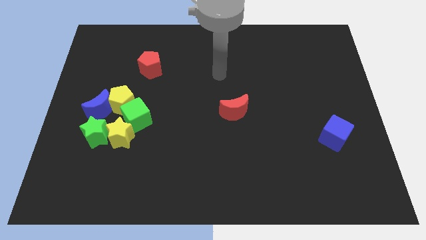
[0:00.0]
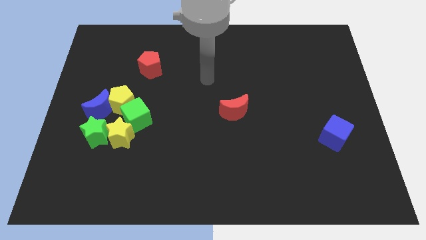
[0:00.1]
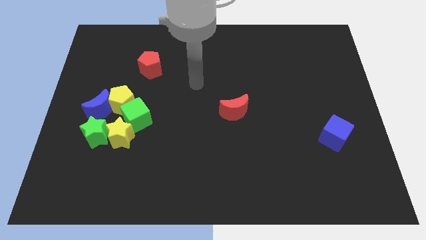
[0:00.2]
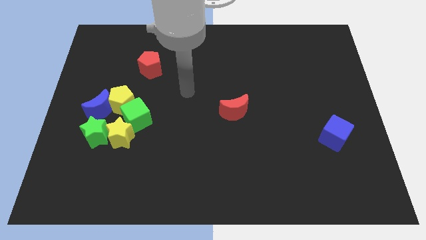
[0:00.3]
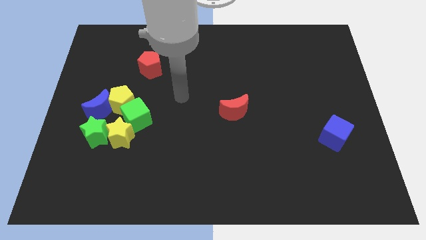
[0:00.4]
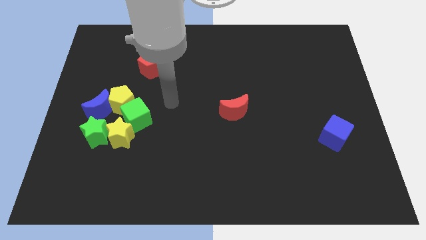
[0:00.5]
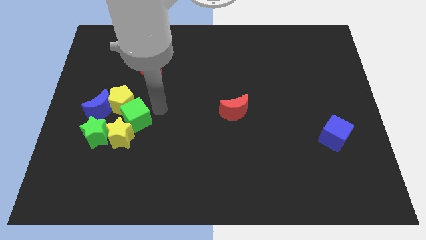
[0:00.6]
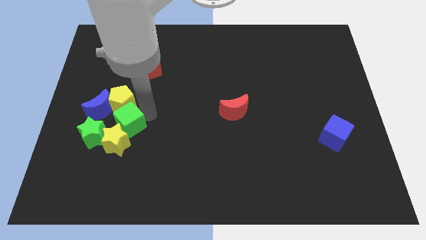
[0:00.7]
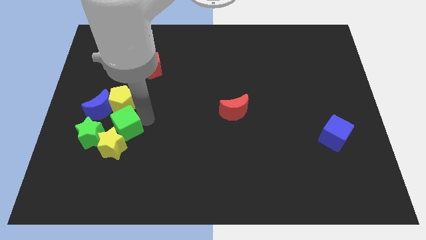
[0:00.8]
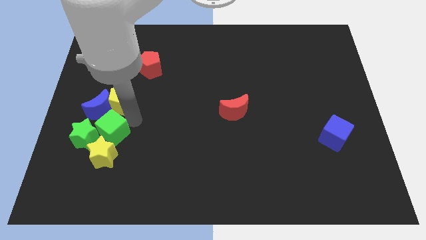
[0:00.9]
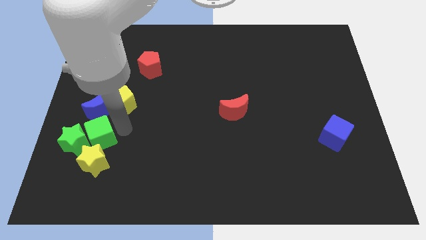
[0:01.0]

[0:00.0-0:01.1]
separate the yellow pentagon from the group

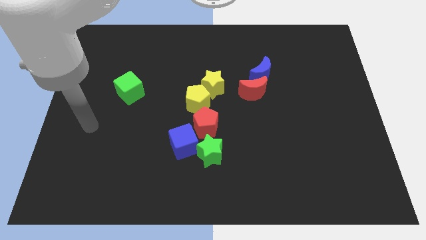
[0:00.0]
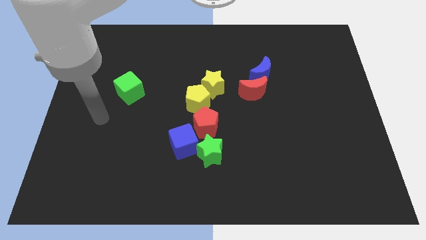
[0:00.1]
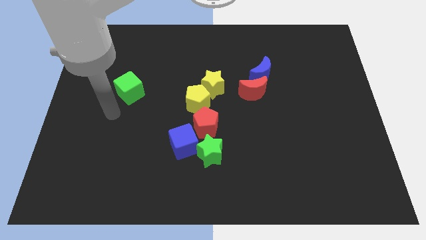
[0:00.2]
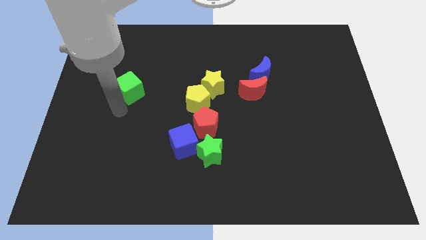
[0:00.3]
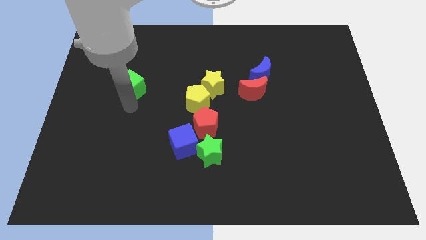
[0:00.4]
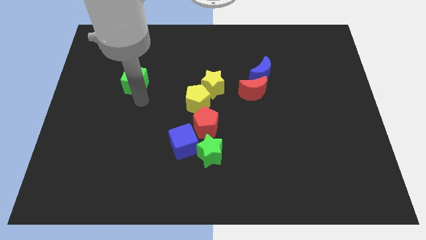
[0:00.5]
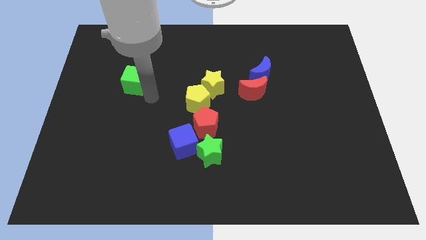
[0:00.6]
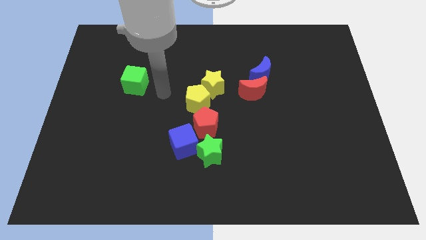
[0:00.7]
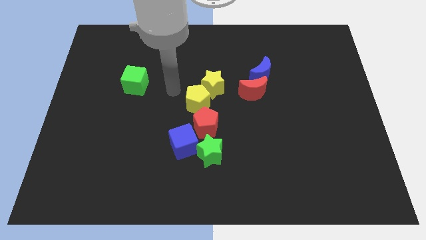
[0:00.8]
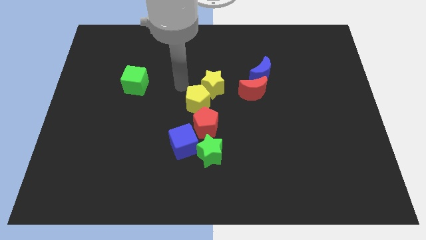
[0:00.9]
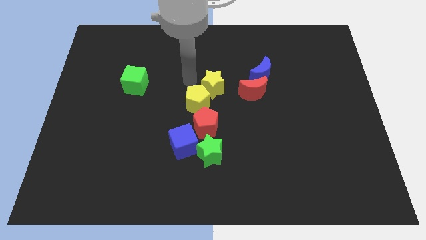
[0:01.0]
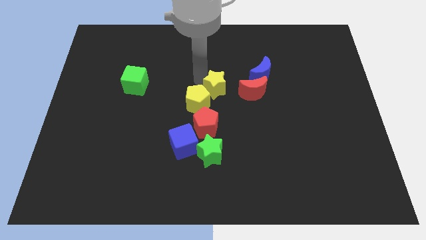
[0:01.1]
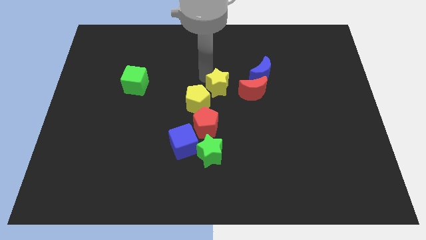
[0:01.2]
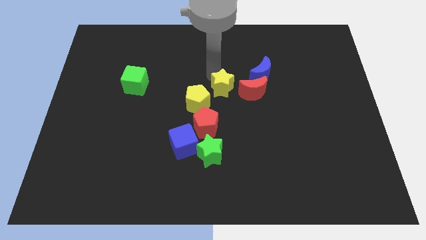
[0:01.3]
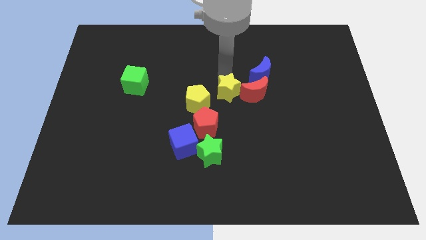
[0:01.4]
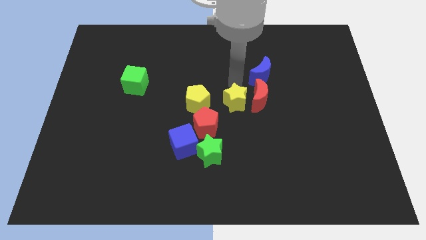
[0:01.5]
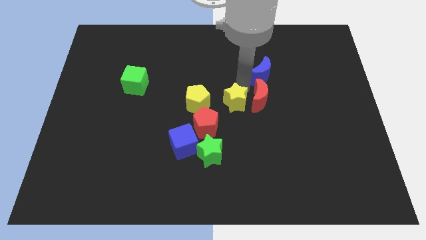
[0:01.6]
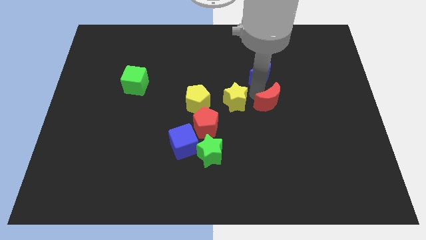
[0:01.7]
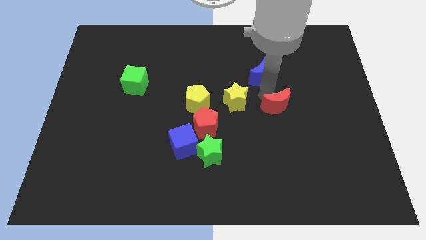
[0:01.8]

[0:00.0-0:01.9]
separate the blue moon from the red moon

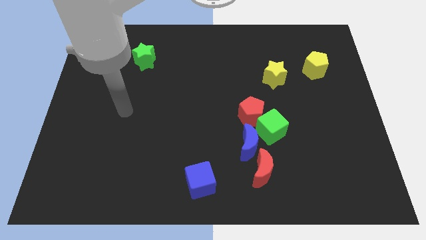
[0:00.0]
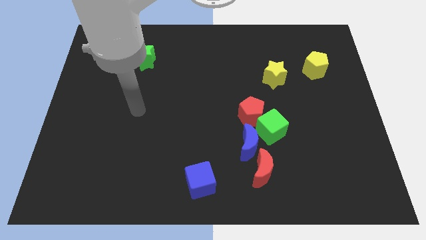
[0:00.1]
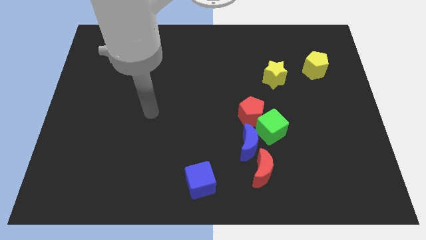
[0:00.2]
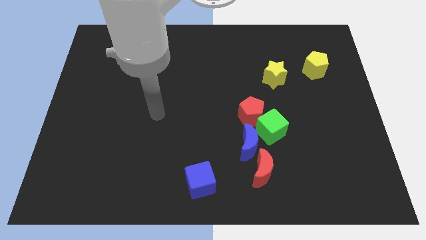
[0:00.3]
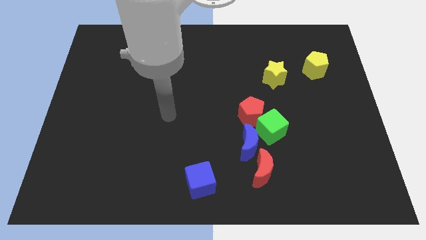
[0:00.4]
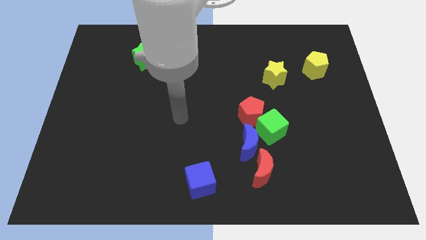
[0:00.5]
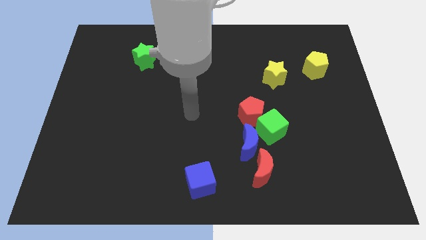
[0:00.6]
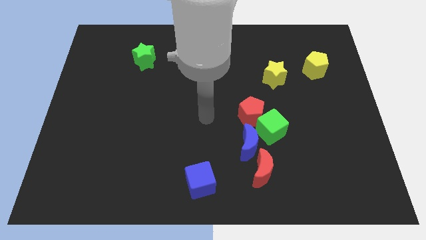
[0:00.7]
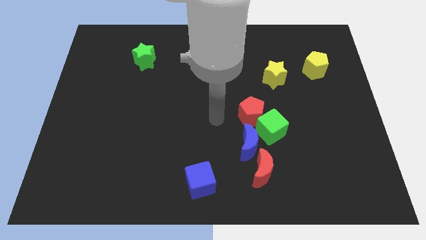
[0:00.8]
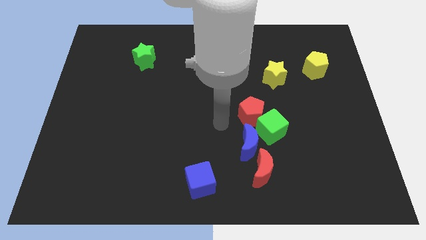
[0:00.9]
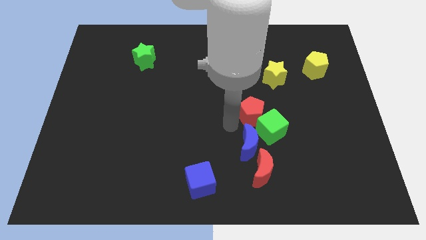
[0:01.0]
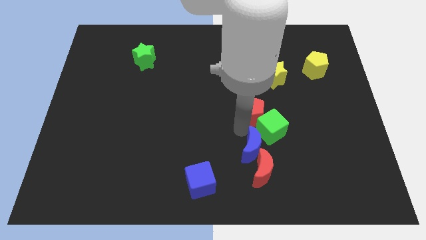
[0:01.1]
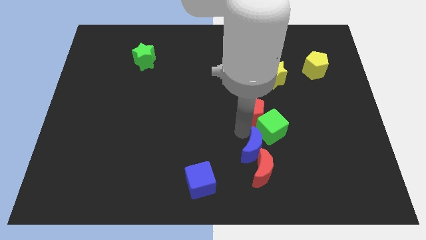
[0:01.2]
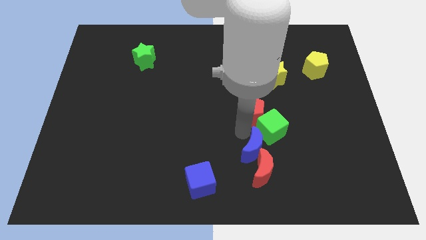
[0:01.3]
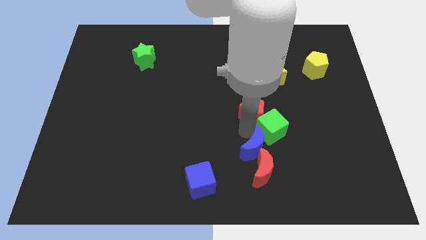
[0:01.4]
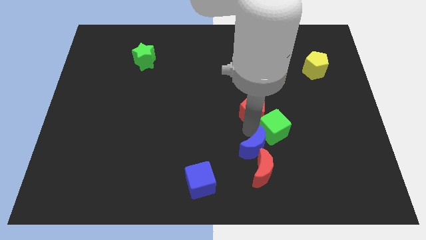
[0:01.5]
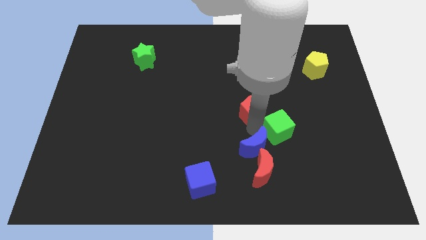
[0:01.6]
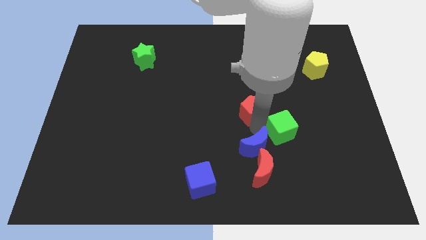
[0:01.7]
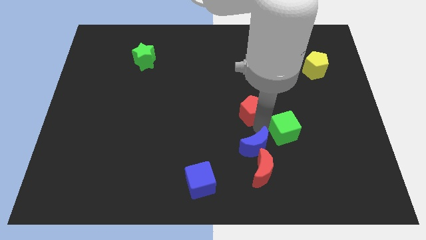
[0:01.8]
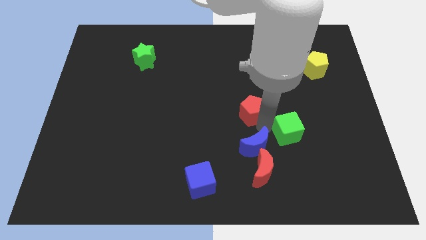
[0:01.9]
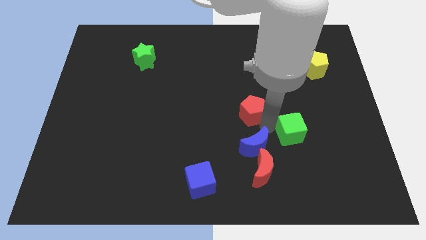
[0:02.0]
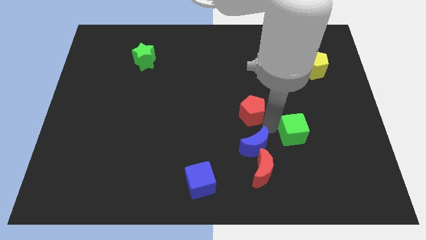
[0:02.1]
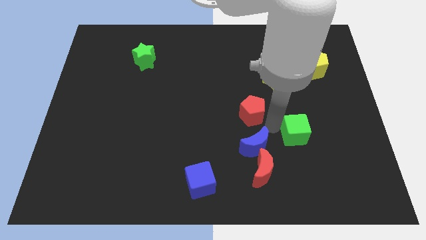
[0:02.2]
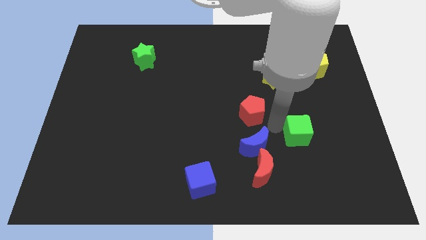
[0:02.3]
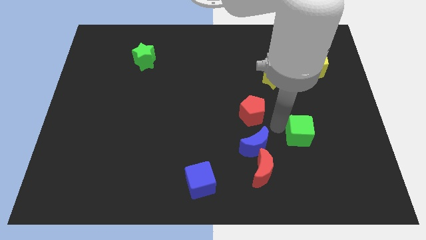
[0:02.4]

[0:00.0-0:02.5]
move the green cube away from the red pentagon and blue moon

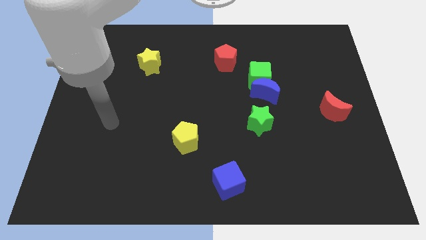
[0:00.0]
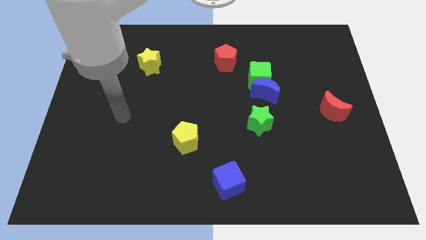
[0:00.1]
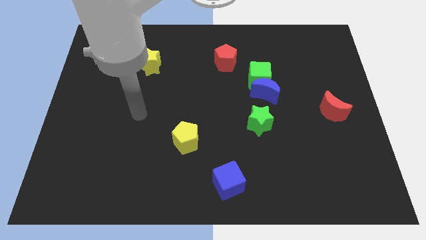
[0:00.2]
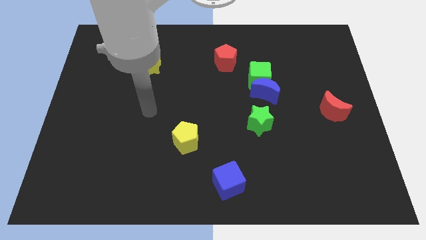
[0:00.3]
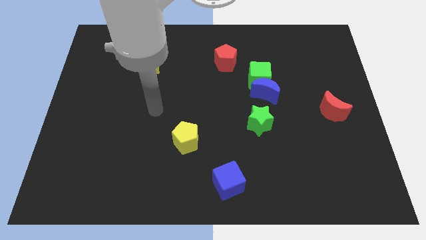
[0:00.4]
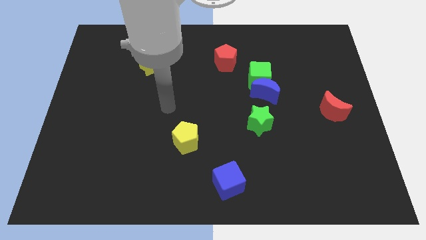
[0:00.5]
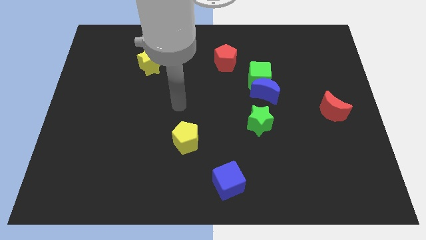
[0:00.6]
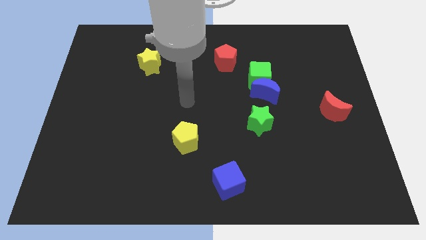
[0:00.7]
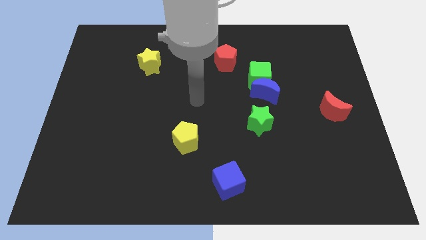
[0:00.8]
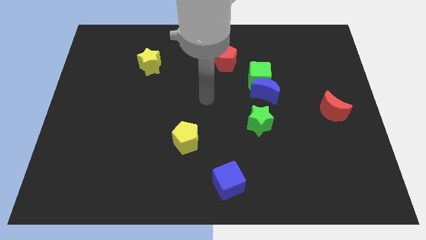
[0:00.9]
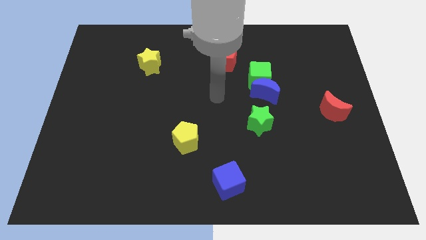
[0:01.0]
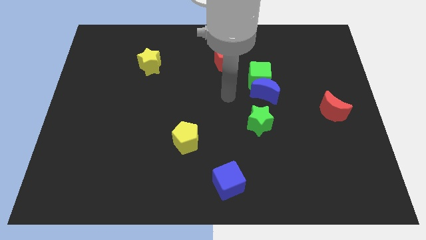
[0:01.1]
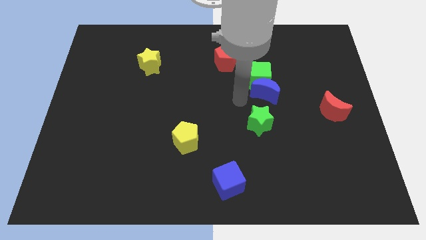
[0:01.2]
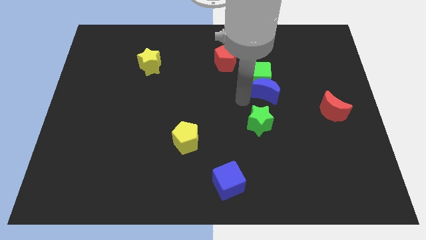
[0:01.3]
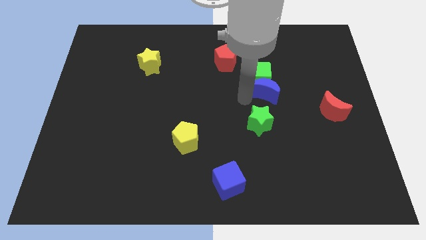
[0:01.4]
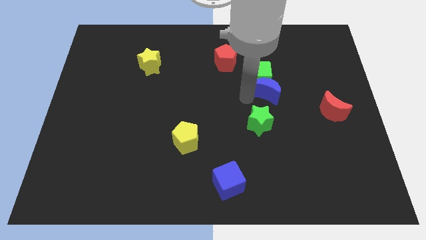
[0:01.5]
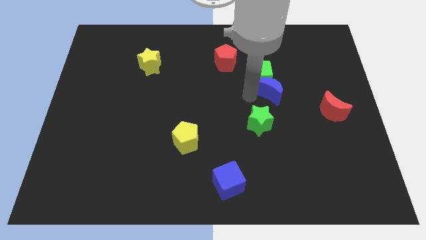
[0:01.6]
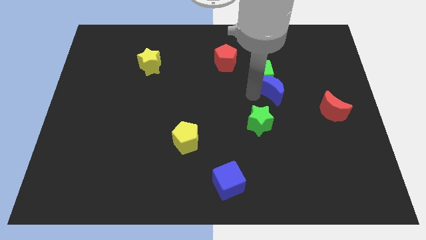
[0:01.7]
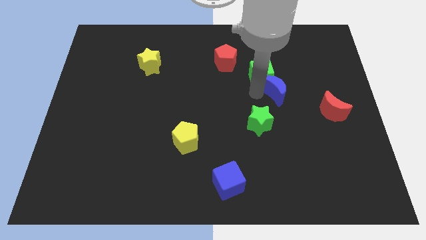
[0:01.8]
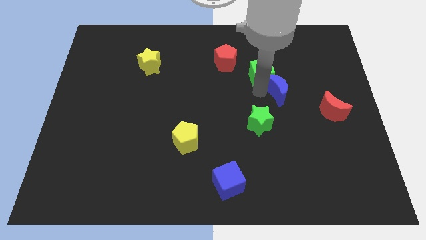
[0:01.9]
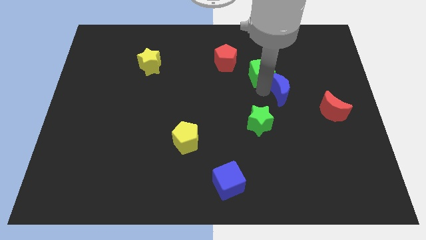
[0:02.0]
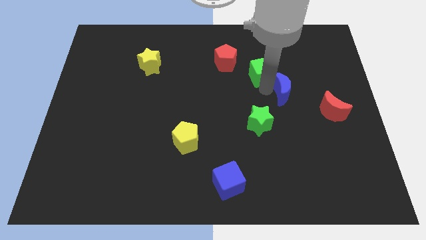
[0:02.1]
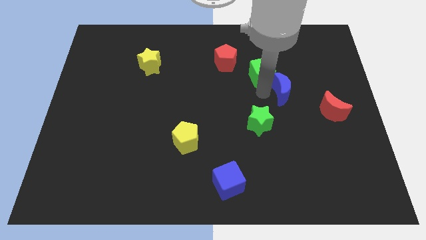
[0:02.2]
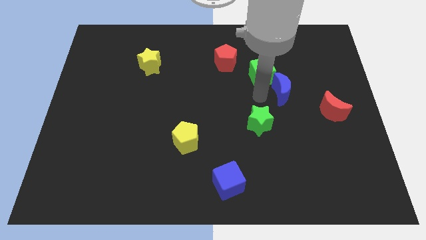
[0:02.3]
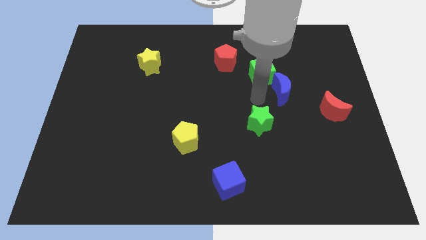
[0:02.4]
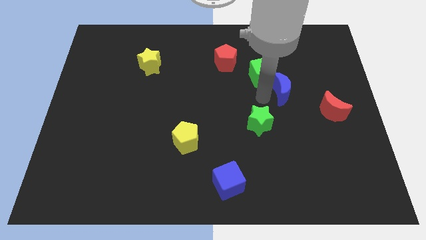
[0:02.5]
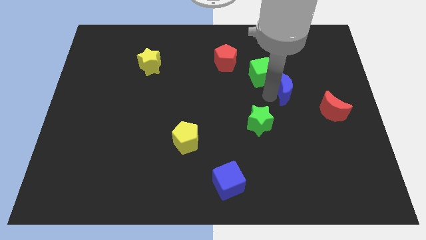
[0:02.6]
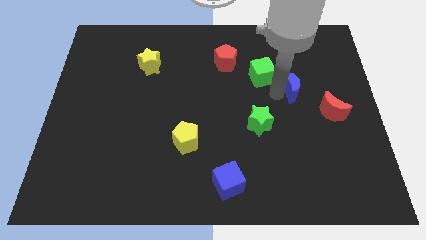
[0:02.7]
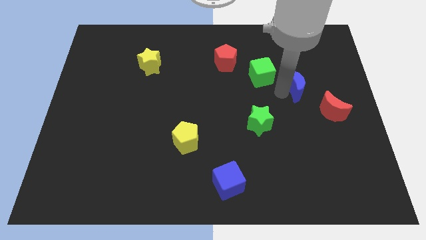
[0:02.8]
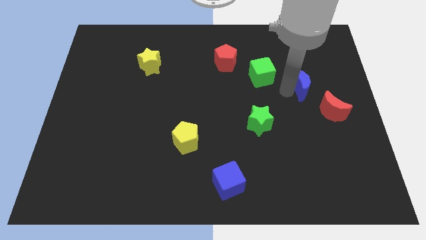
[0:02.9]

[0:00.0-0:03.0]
separate the blue moon from the green cube and green star

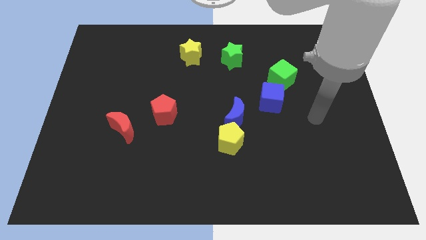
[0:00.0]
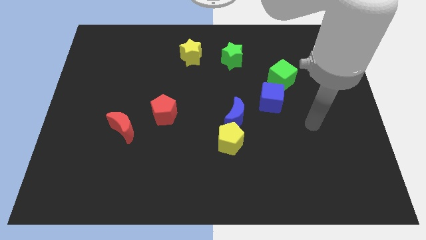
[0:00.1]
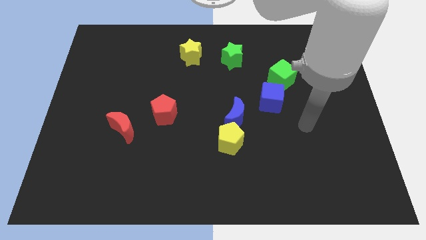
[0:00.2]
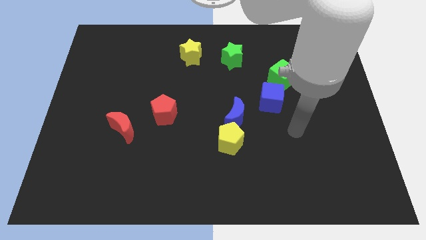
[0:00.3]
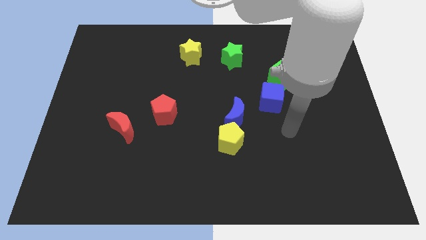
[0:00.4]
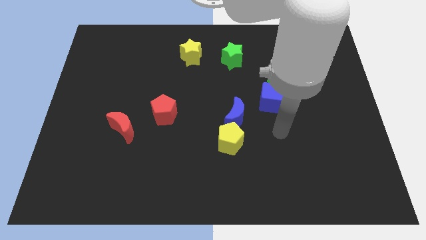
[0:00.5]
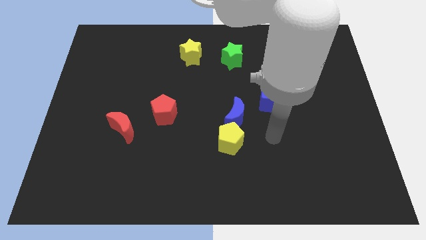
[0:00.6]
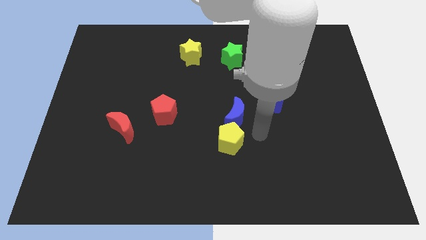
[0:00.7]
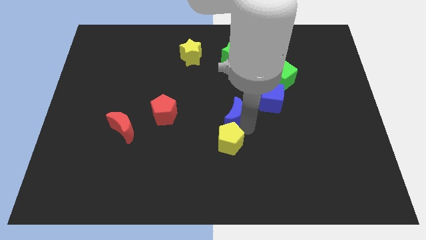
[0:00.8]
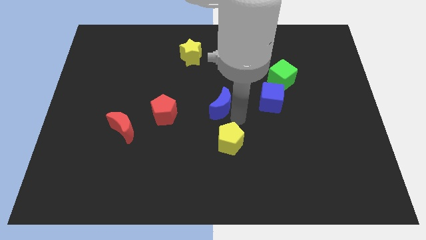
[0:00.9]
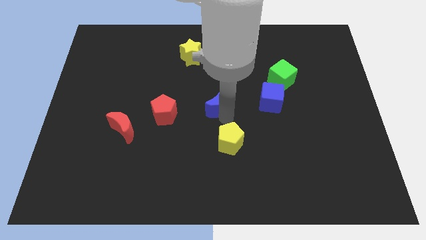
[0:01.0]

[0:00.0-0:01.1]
move the yellow pentagon away from the blue moon
